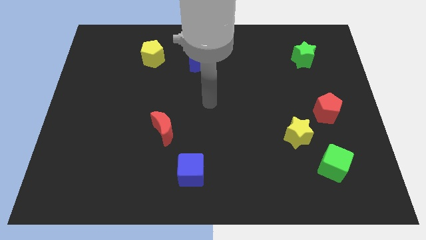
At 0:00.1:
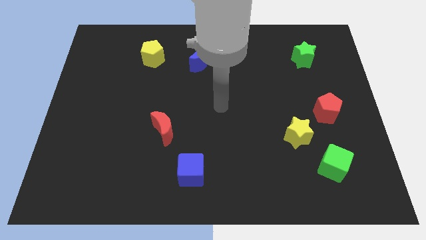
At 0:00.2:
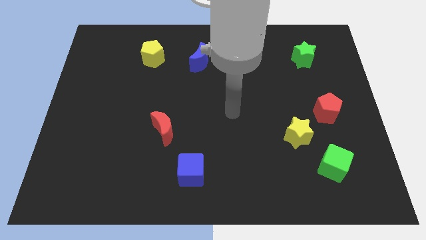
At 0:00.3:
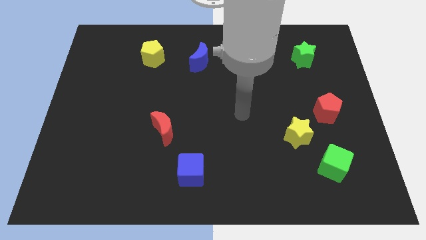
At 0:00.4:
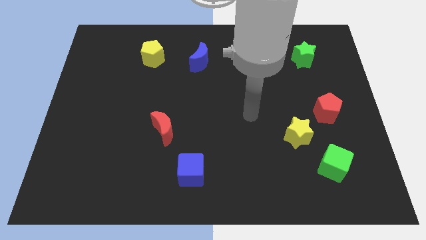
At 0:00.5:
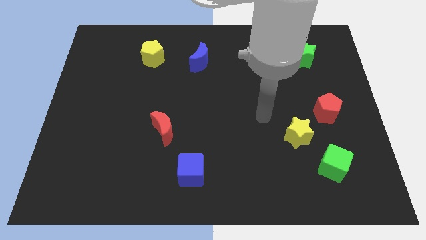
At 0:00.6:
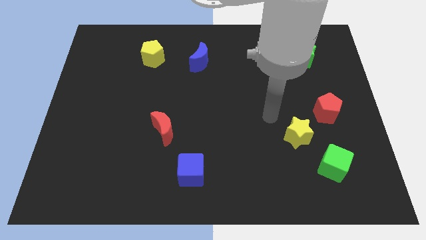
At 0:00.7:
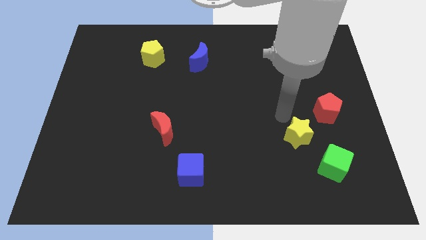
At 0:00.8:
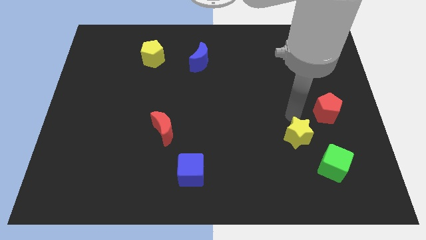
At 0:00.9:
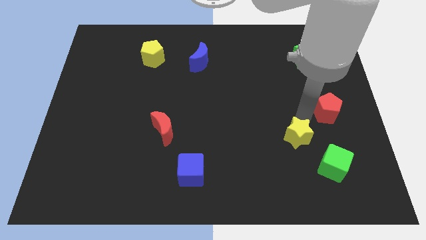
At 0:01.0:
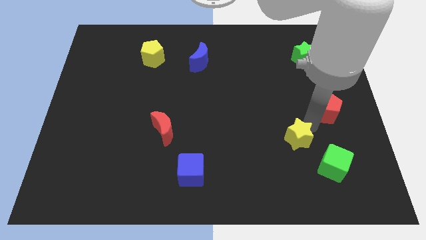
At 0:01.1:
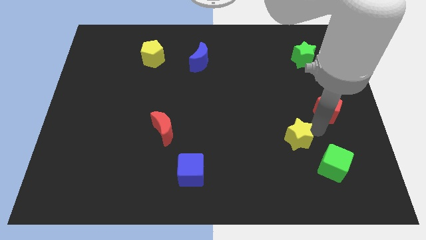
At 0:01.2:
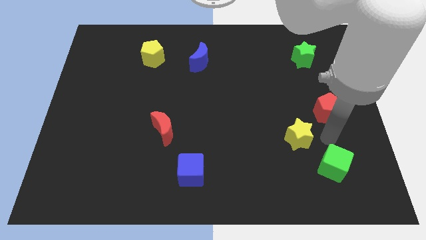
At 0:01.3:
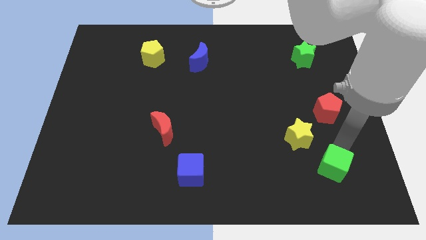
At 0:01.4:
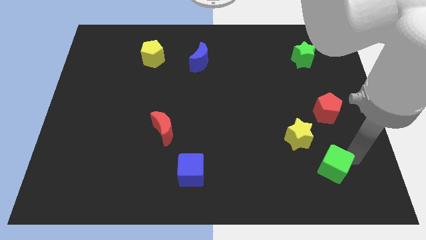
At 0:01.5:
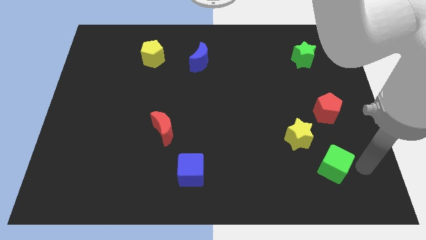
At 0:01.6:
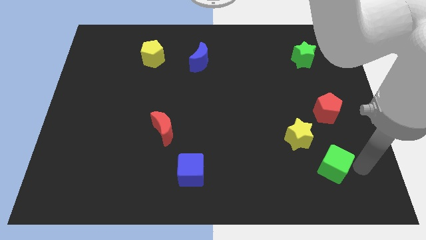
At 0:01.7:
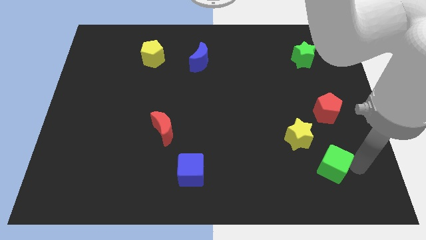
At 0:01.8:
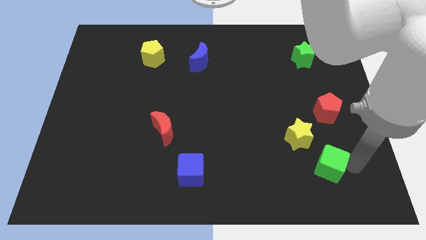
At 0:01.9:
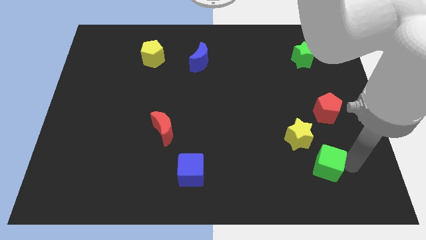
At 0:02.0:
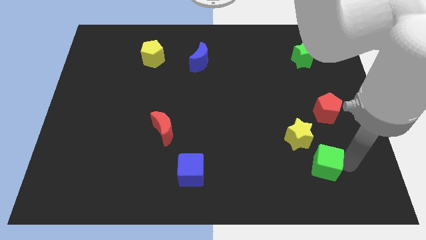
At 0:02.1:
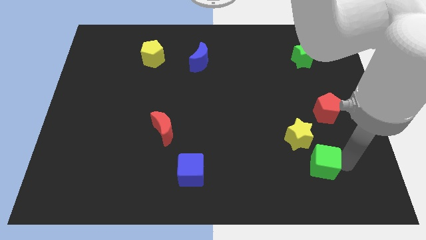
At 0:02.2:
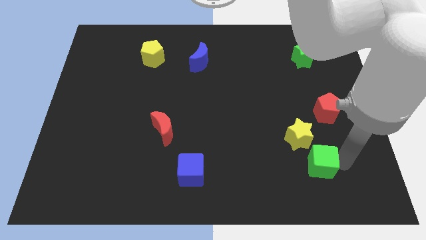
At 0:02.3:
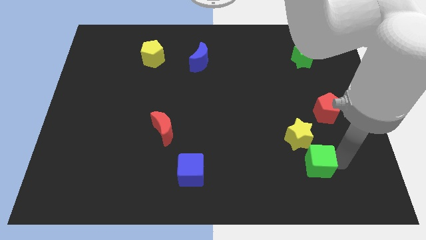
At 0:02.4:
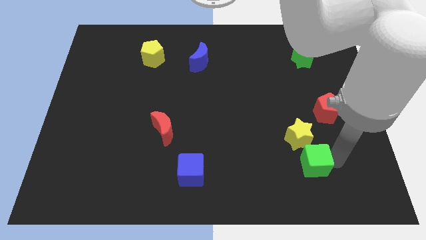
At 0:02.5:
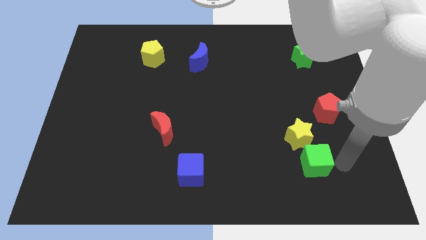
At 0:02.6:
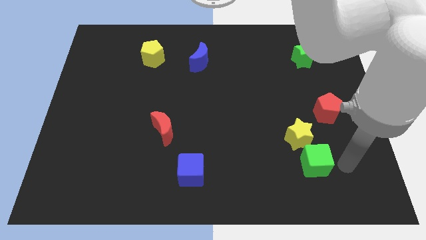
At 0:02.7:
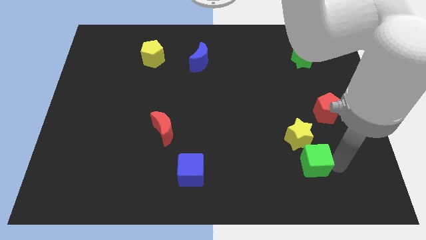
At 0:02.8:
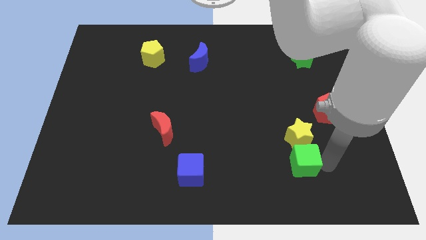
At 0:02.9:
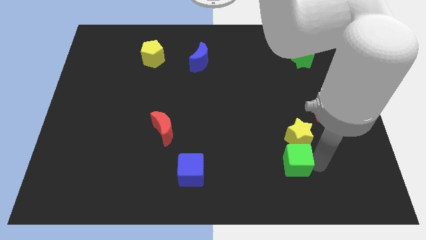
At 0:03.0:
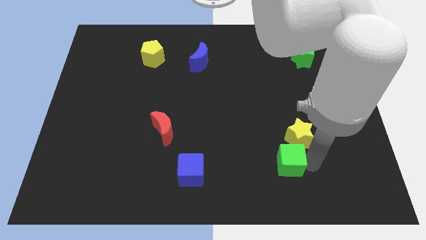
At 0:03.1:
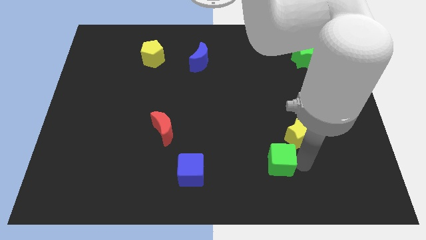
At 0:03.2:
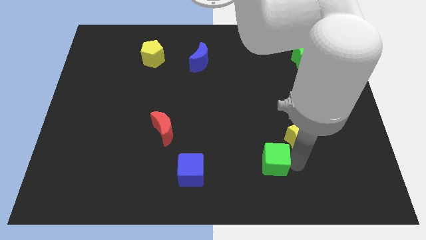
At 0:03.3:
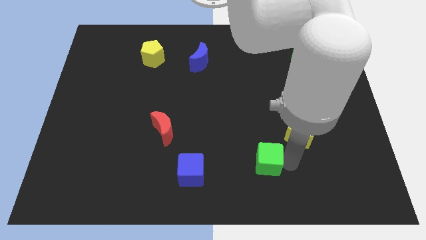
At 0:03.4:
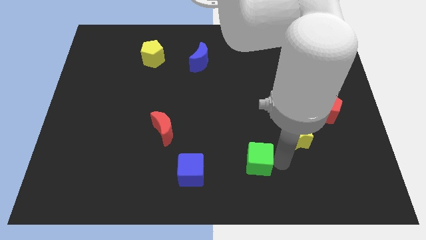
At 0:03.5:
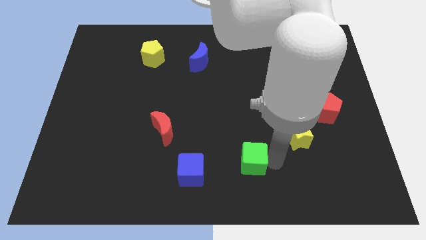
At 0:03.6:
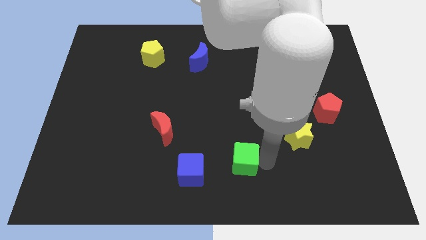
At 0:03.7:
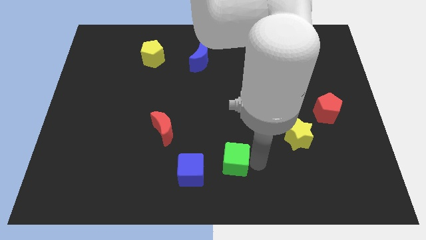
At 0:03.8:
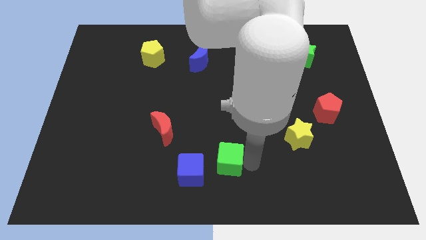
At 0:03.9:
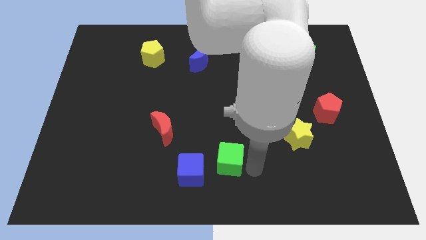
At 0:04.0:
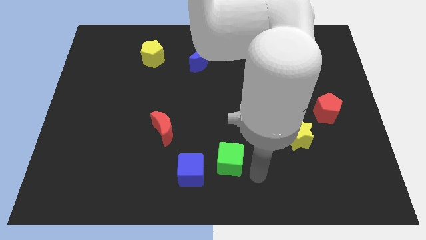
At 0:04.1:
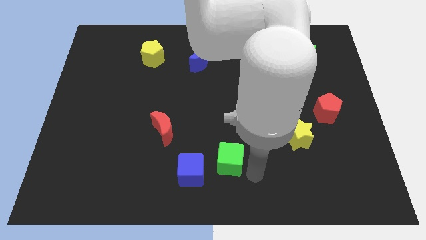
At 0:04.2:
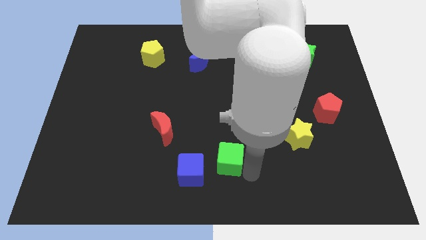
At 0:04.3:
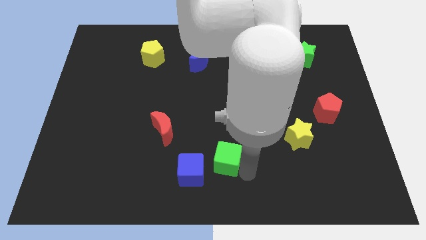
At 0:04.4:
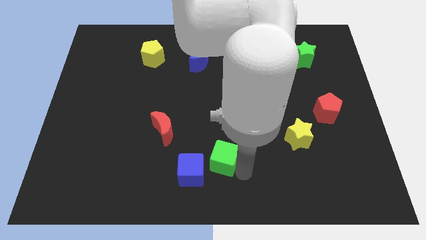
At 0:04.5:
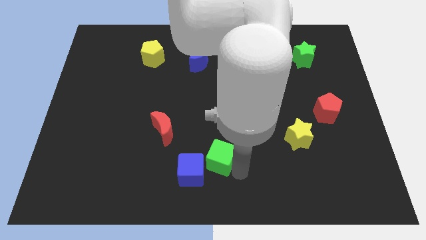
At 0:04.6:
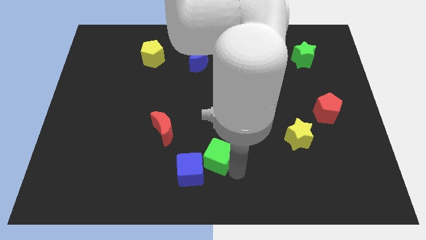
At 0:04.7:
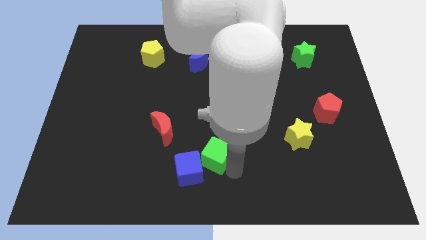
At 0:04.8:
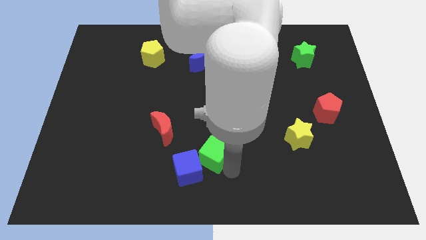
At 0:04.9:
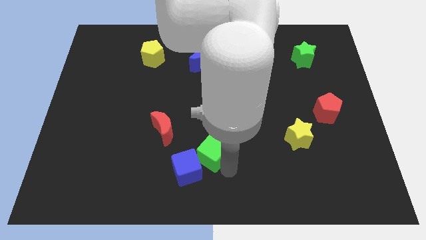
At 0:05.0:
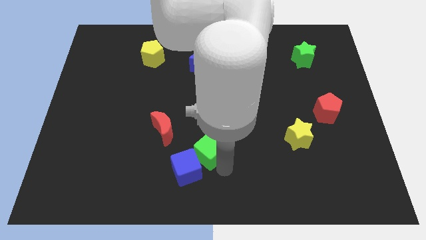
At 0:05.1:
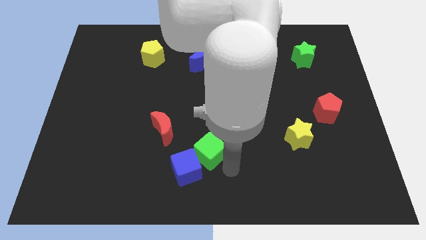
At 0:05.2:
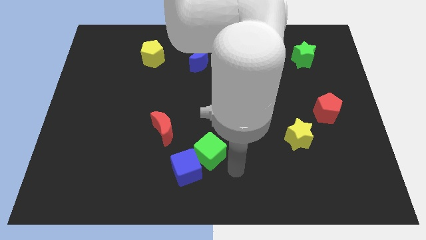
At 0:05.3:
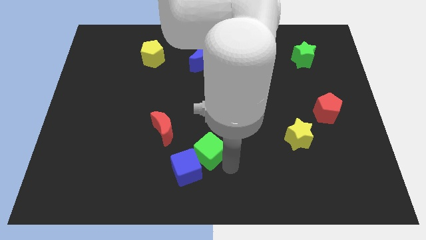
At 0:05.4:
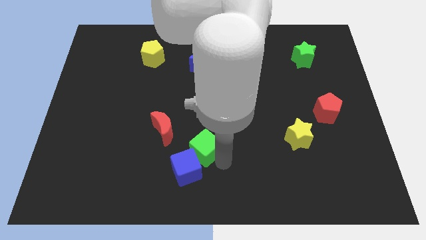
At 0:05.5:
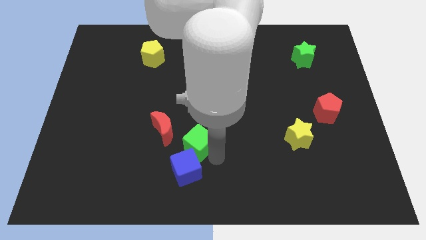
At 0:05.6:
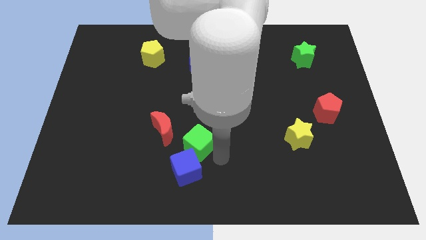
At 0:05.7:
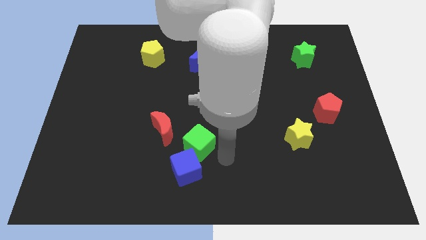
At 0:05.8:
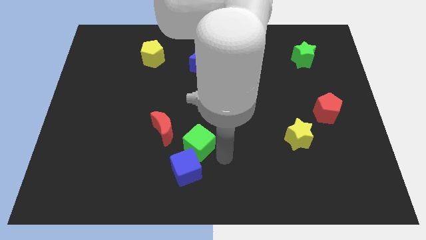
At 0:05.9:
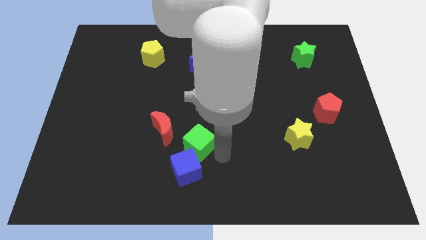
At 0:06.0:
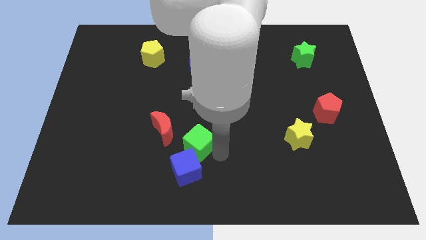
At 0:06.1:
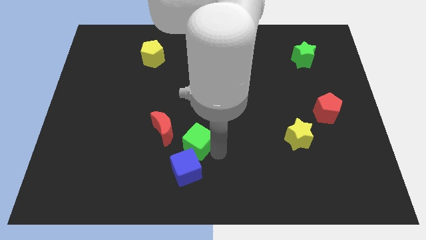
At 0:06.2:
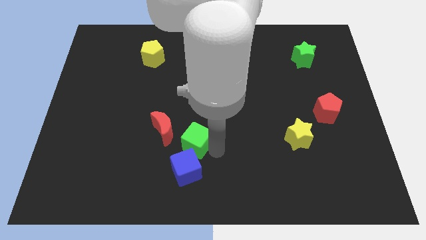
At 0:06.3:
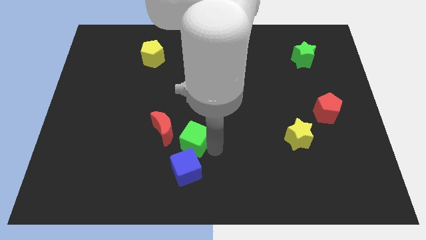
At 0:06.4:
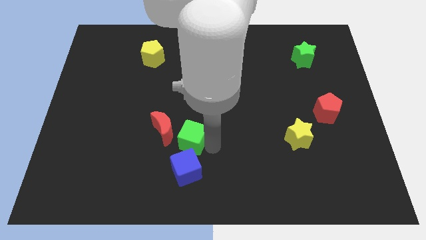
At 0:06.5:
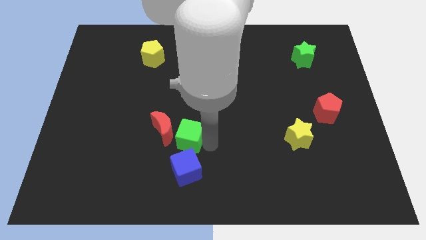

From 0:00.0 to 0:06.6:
put the green cube close to the red moon

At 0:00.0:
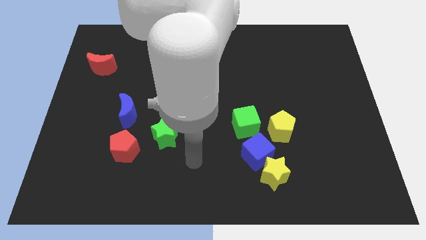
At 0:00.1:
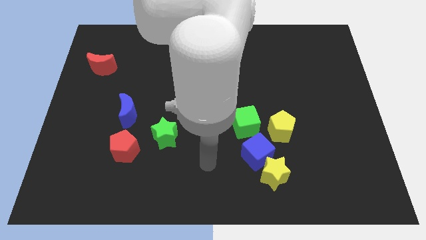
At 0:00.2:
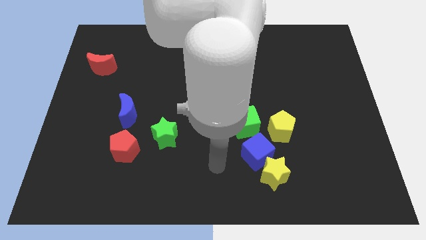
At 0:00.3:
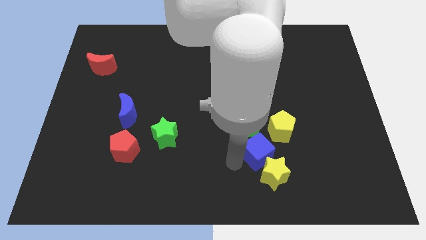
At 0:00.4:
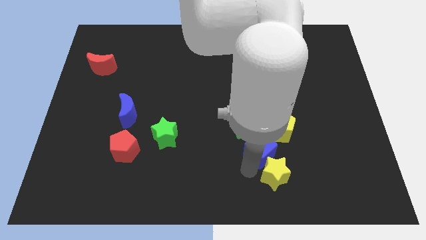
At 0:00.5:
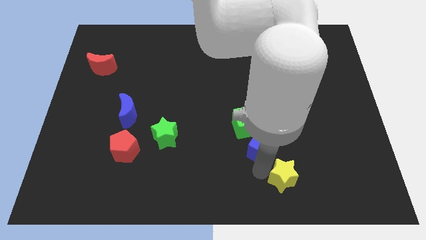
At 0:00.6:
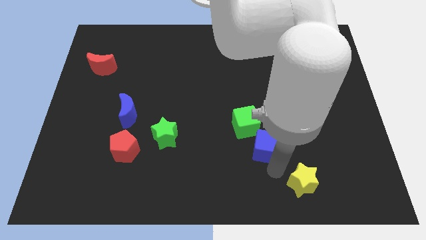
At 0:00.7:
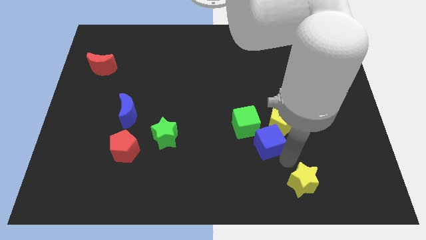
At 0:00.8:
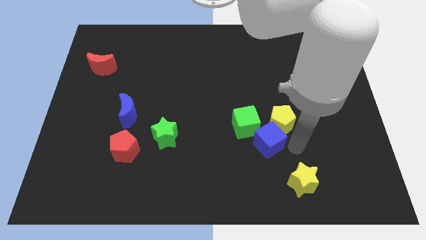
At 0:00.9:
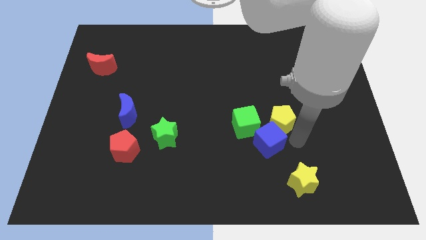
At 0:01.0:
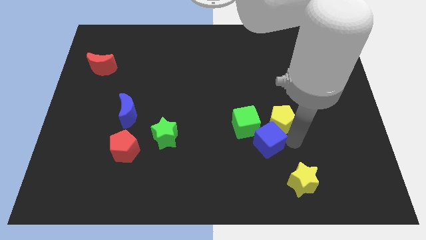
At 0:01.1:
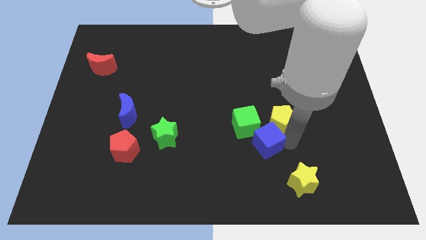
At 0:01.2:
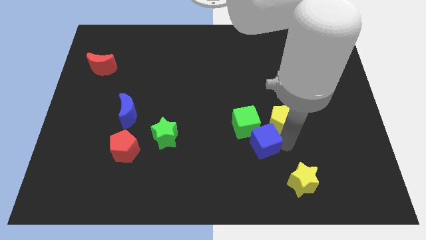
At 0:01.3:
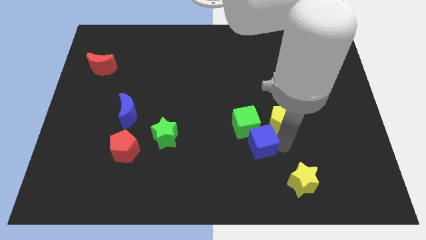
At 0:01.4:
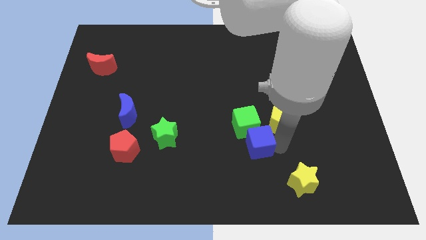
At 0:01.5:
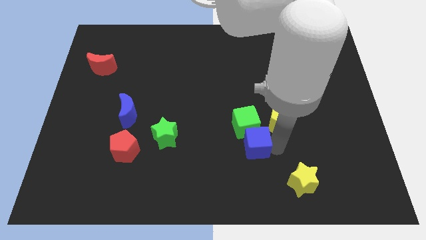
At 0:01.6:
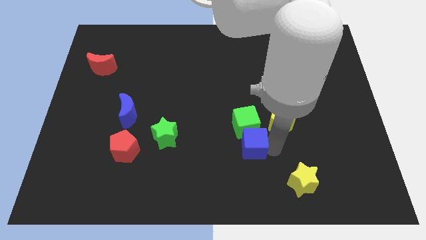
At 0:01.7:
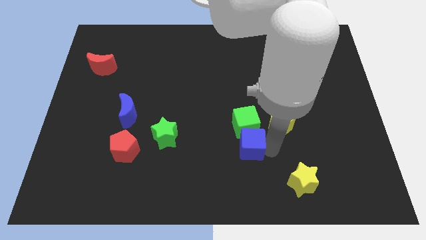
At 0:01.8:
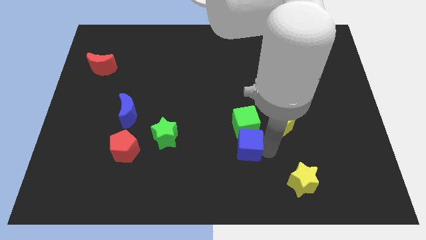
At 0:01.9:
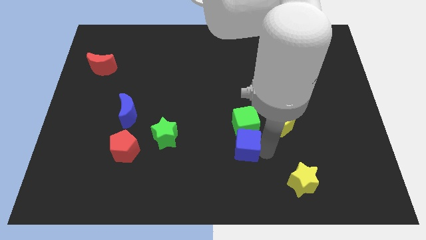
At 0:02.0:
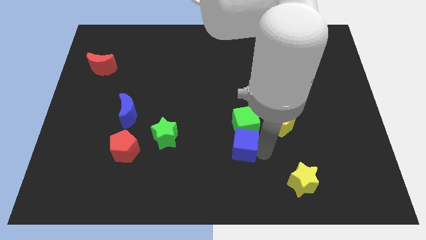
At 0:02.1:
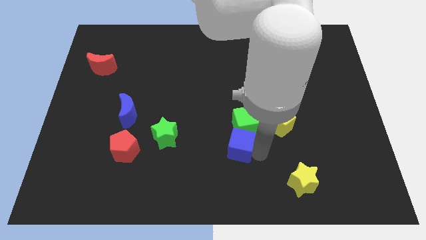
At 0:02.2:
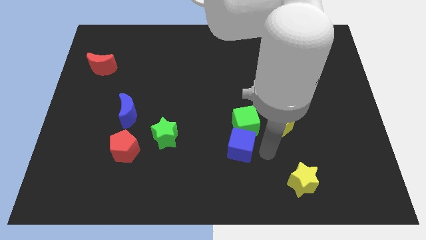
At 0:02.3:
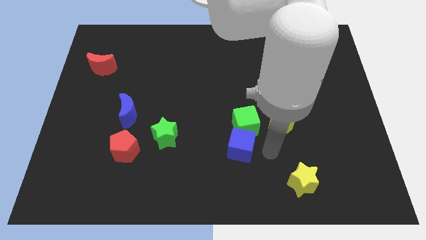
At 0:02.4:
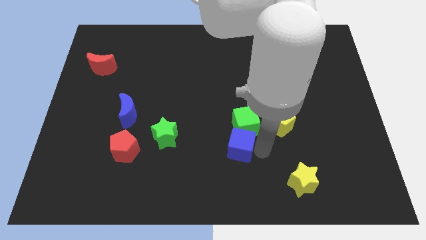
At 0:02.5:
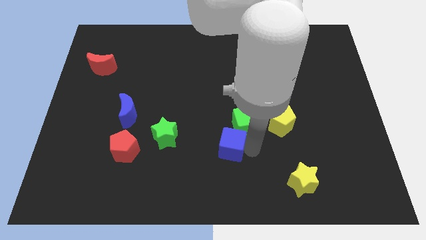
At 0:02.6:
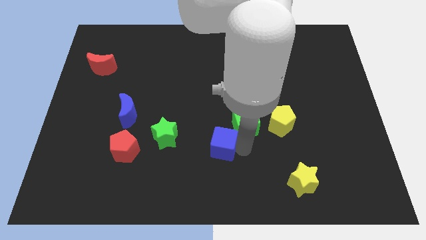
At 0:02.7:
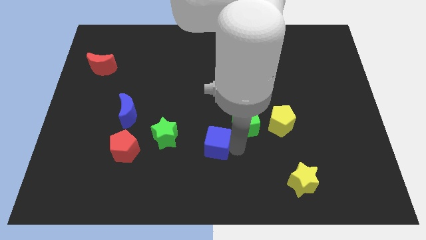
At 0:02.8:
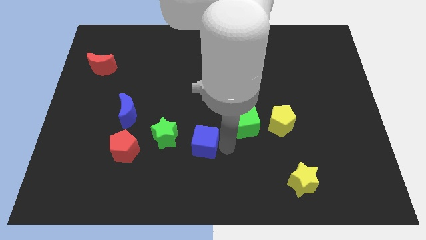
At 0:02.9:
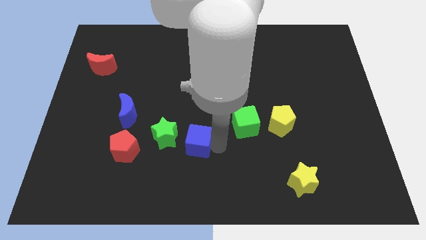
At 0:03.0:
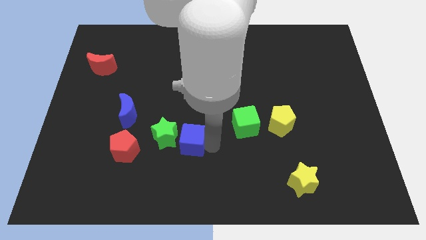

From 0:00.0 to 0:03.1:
put the blue cube towards the green star
